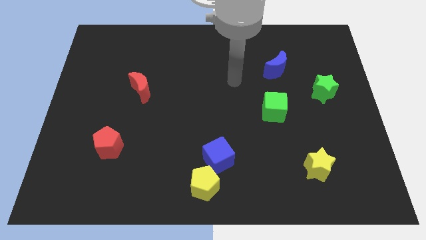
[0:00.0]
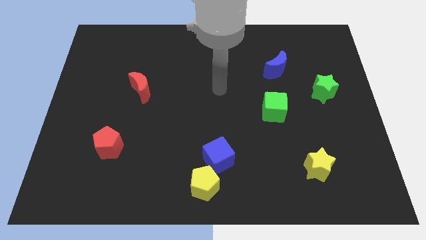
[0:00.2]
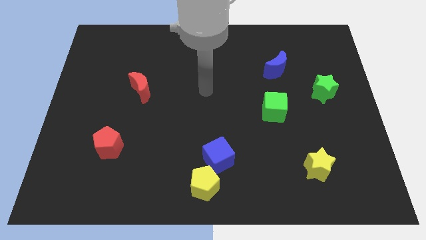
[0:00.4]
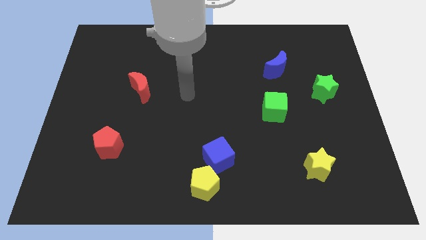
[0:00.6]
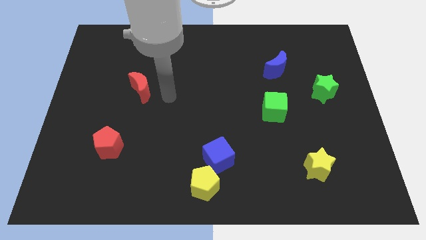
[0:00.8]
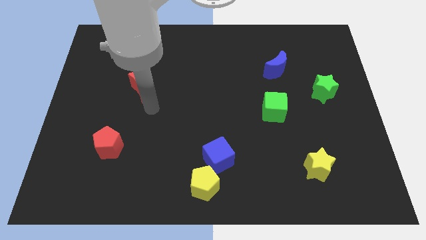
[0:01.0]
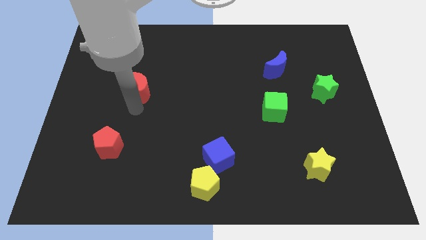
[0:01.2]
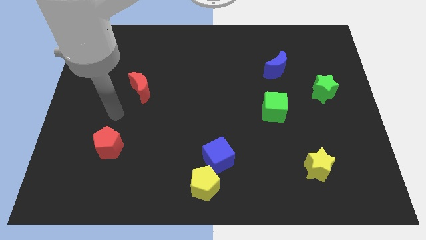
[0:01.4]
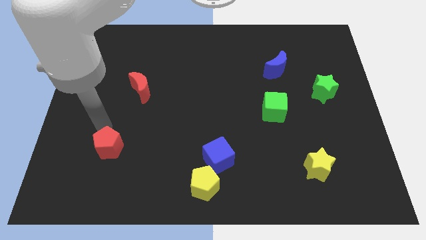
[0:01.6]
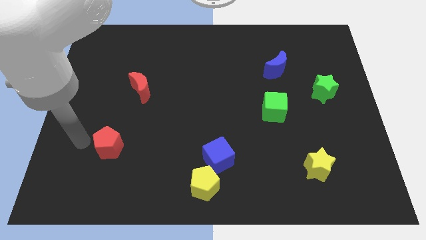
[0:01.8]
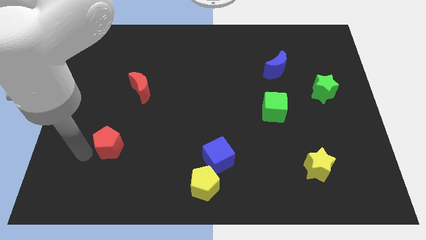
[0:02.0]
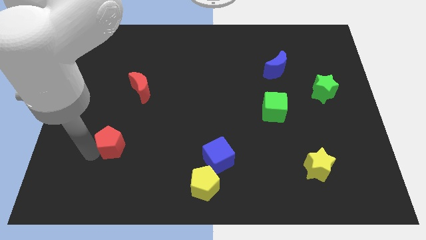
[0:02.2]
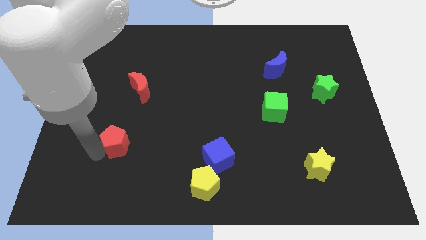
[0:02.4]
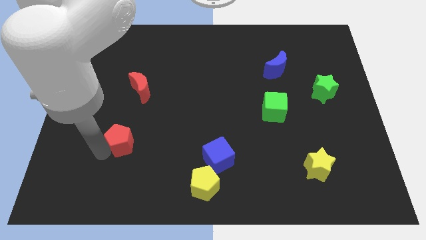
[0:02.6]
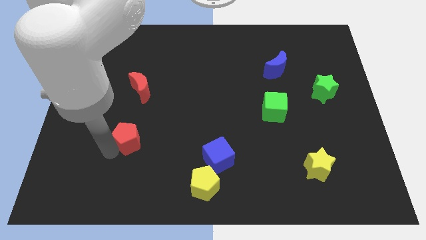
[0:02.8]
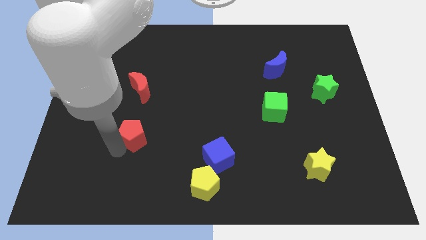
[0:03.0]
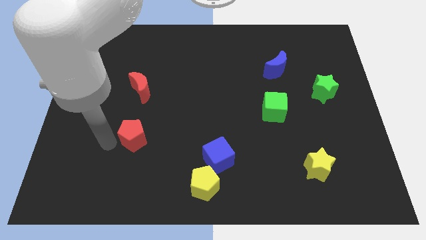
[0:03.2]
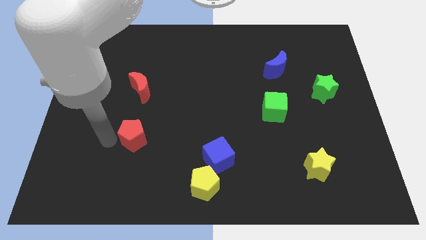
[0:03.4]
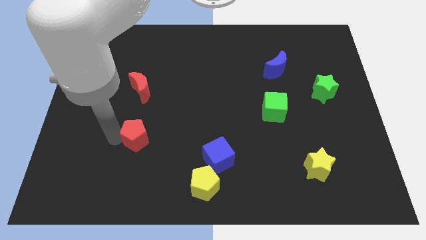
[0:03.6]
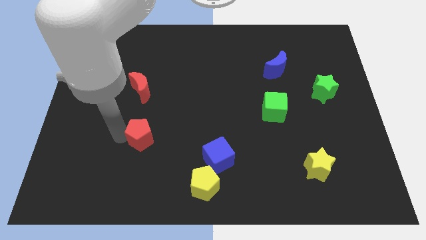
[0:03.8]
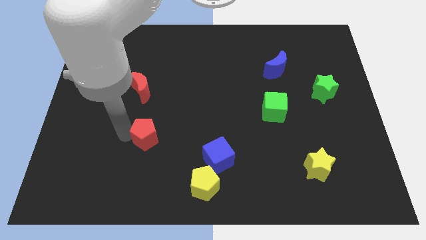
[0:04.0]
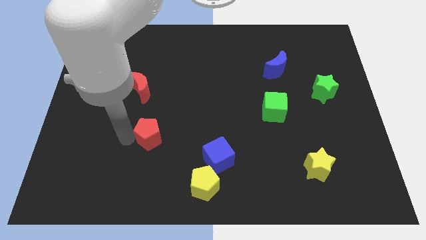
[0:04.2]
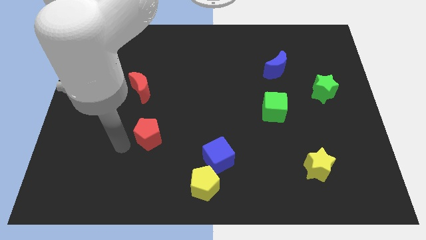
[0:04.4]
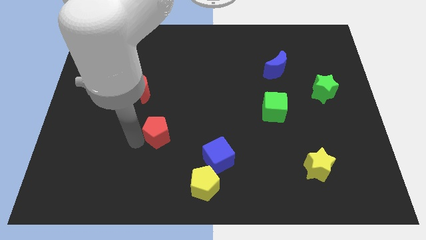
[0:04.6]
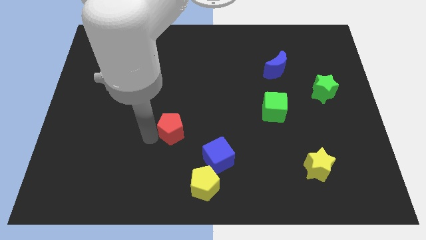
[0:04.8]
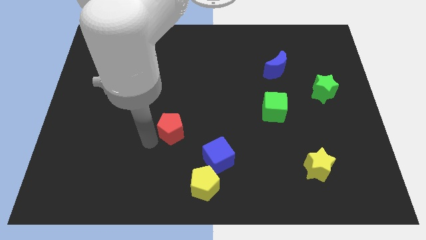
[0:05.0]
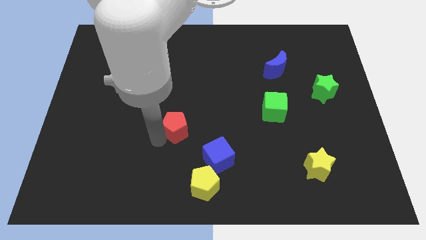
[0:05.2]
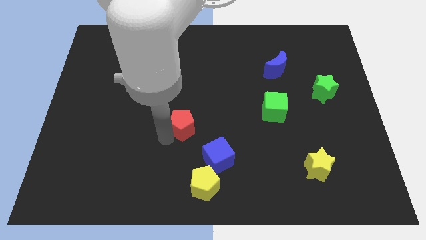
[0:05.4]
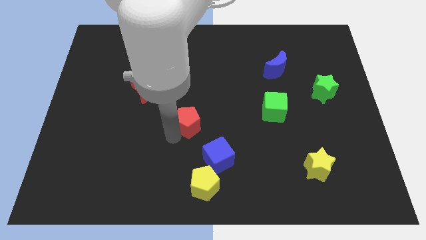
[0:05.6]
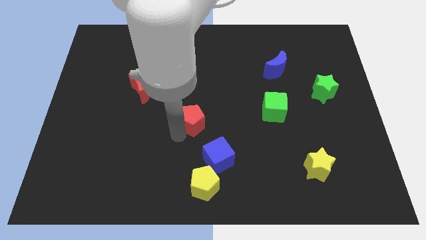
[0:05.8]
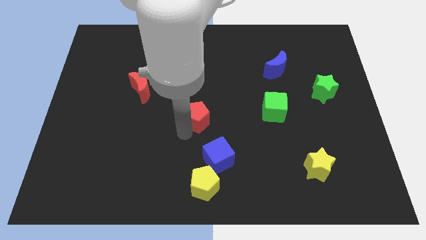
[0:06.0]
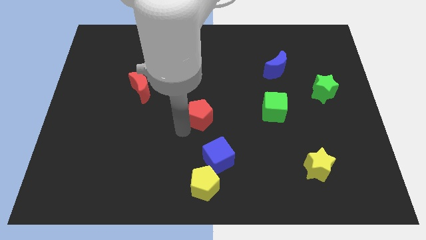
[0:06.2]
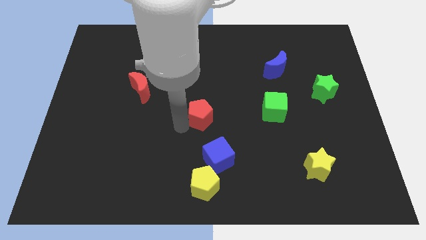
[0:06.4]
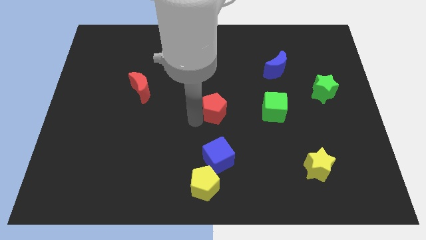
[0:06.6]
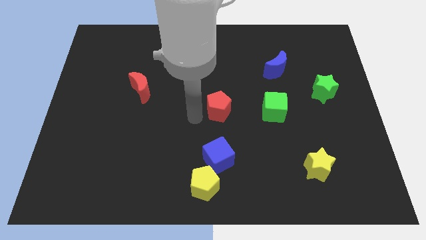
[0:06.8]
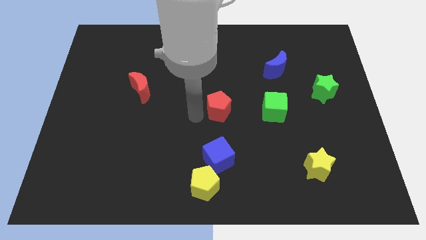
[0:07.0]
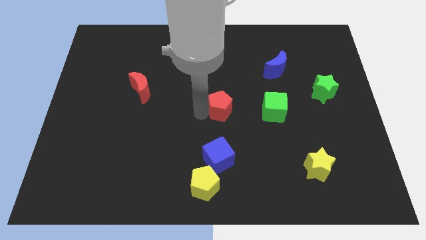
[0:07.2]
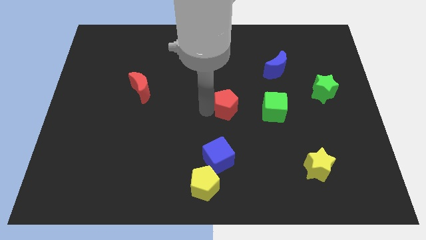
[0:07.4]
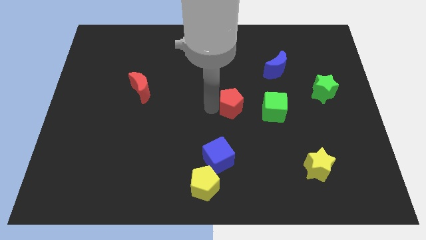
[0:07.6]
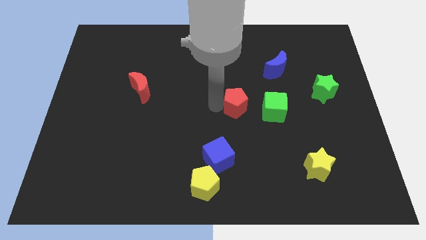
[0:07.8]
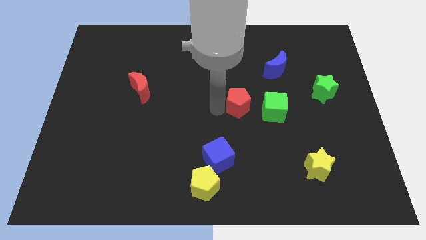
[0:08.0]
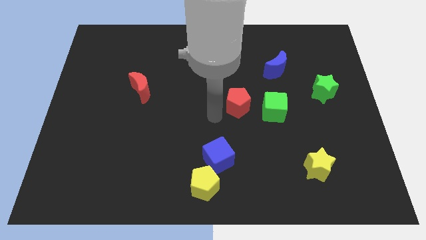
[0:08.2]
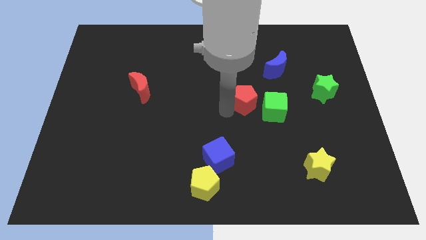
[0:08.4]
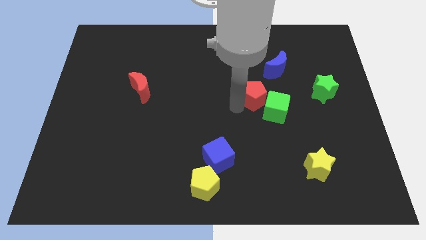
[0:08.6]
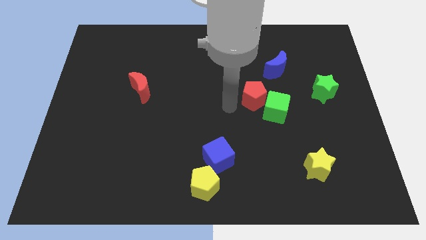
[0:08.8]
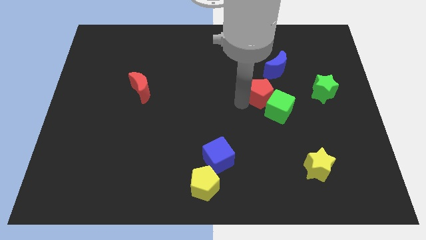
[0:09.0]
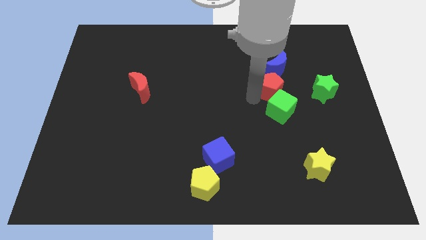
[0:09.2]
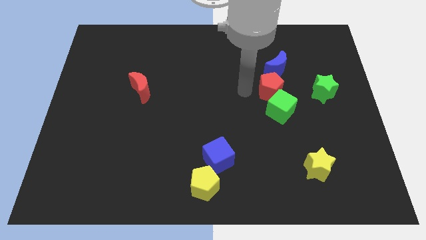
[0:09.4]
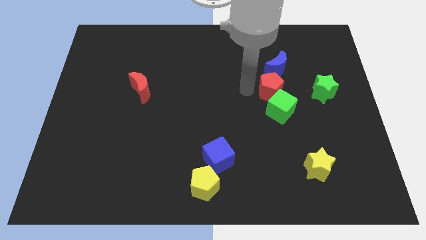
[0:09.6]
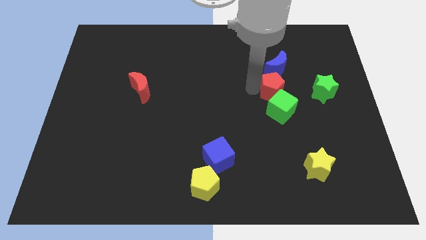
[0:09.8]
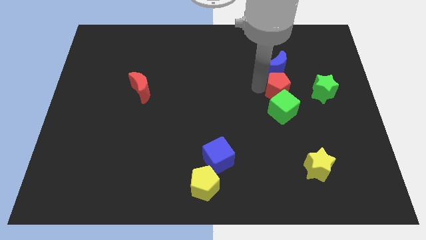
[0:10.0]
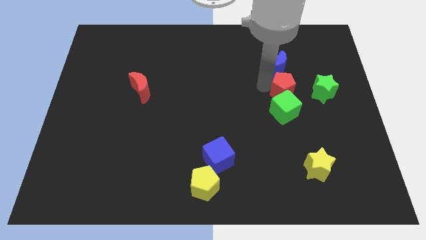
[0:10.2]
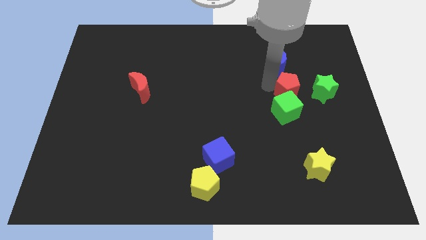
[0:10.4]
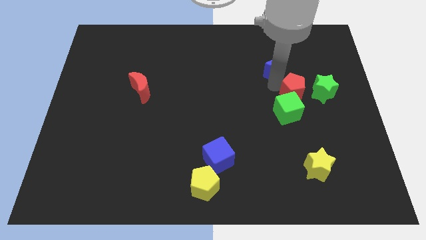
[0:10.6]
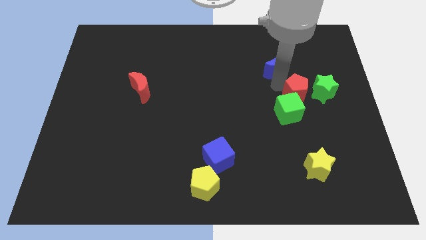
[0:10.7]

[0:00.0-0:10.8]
put the red pentagon next to the green star

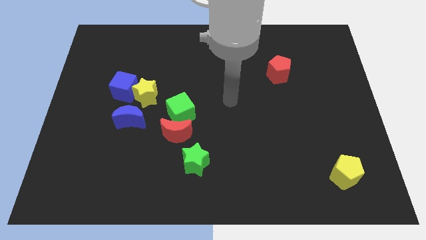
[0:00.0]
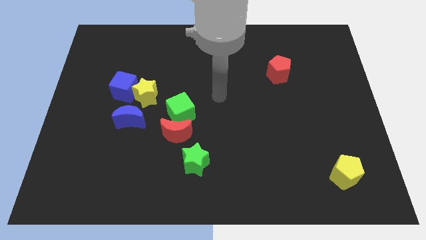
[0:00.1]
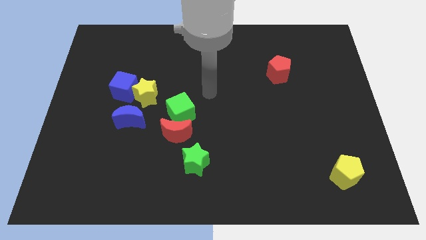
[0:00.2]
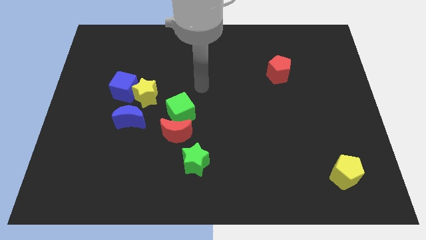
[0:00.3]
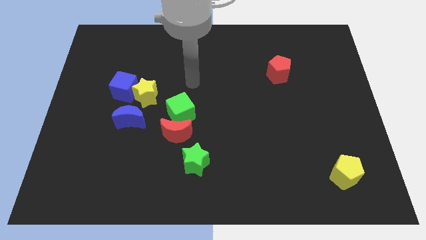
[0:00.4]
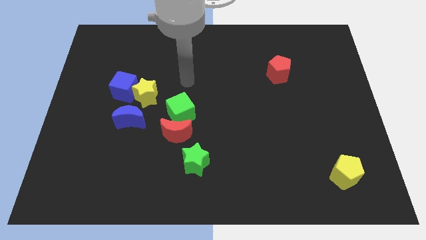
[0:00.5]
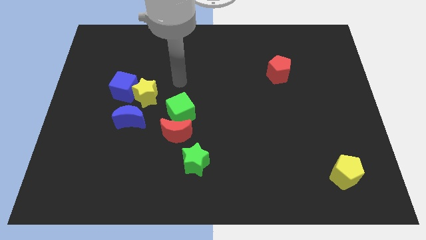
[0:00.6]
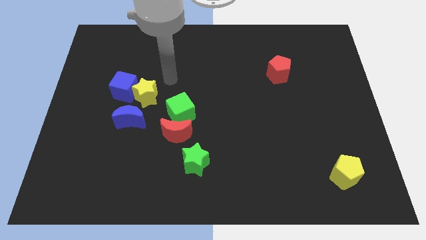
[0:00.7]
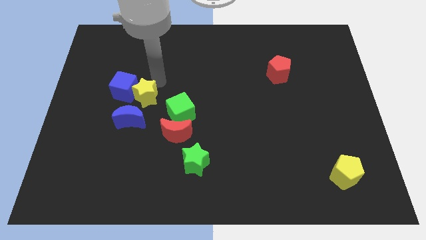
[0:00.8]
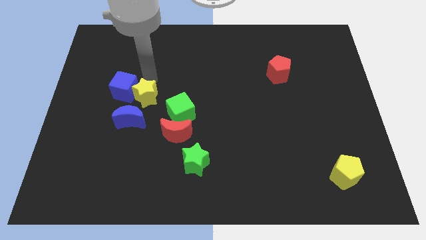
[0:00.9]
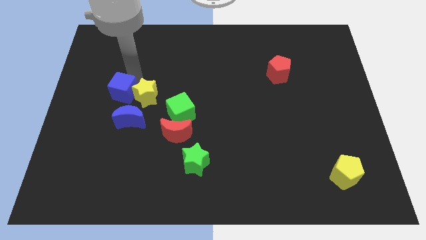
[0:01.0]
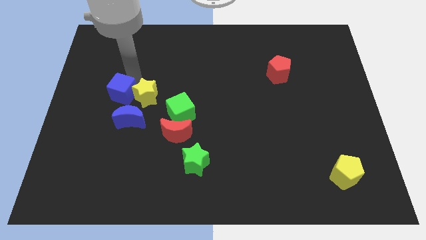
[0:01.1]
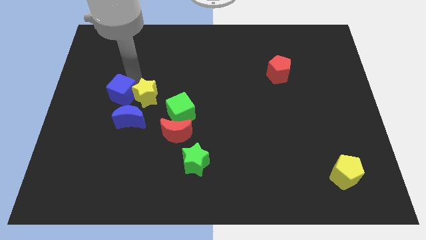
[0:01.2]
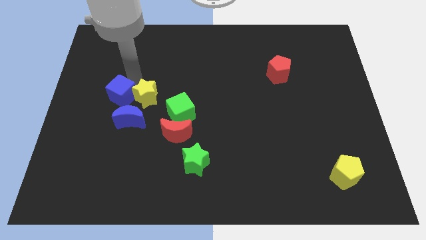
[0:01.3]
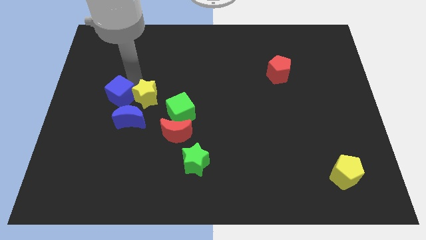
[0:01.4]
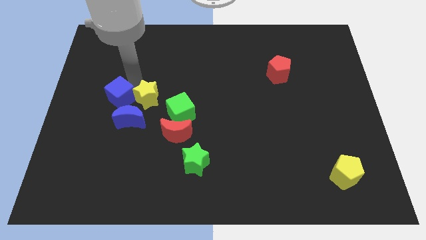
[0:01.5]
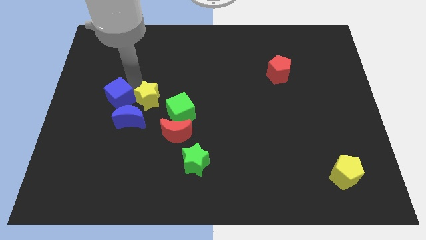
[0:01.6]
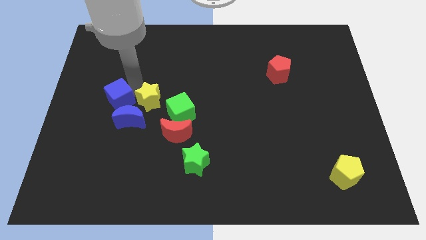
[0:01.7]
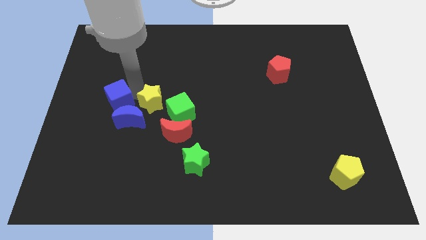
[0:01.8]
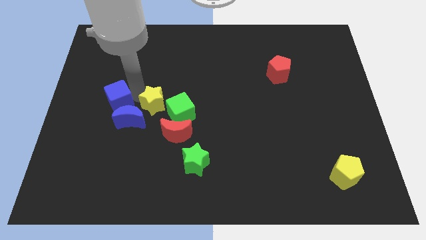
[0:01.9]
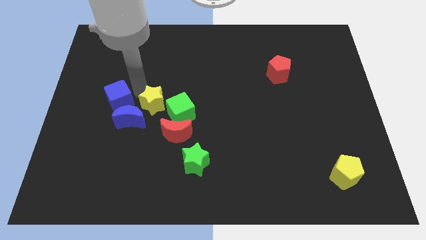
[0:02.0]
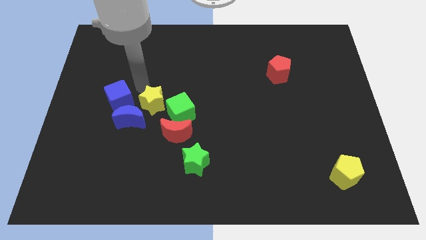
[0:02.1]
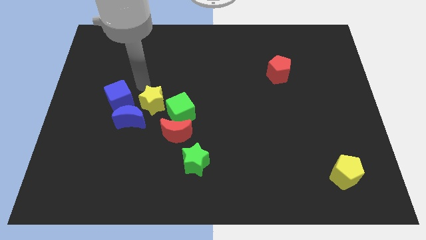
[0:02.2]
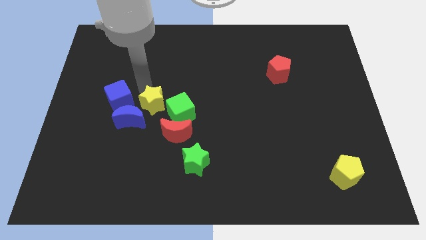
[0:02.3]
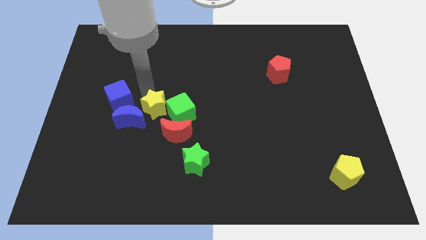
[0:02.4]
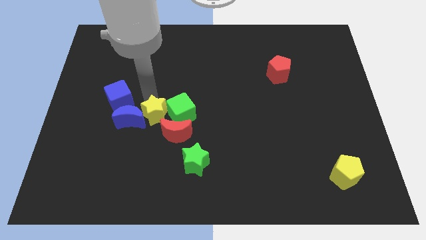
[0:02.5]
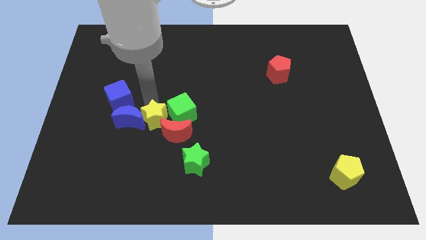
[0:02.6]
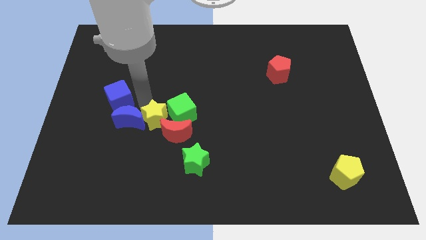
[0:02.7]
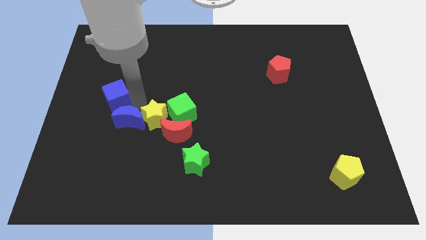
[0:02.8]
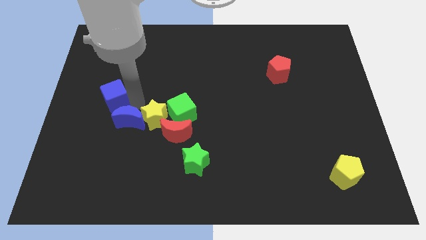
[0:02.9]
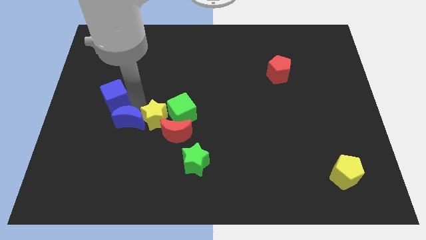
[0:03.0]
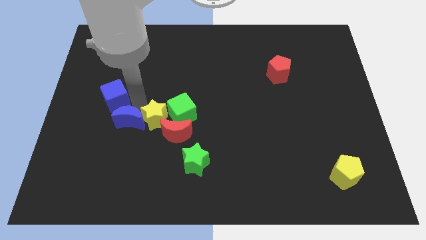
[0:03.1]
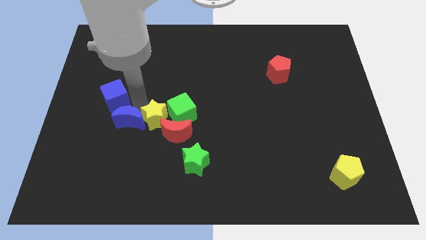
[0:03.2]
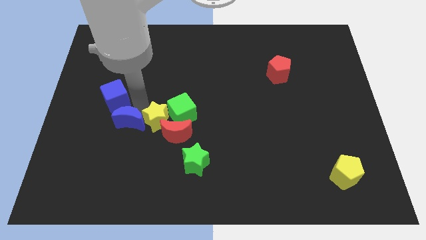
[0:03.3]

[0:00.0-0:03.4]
put the yellow star to the red moon
